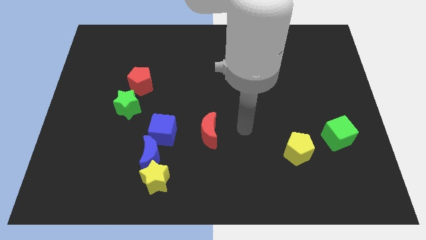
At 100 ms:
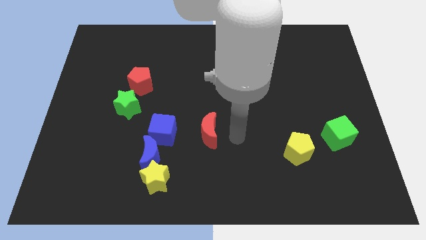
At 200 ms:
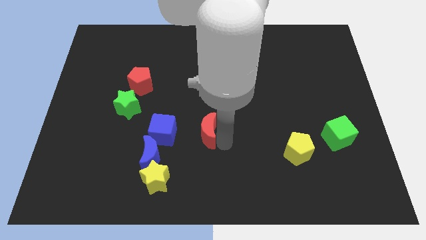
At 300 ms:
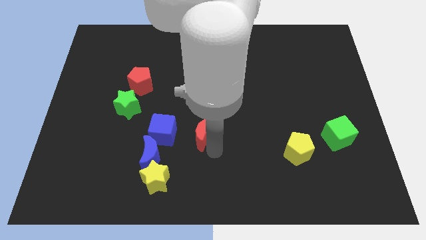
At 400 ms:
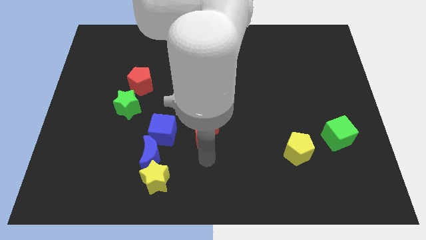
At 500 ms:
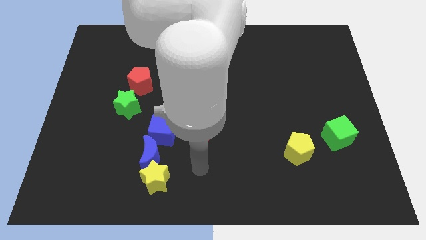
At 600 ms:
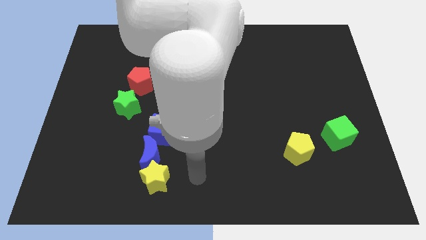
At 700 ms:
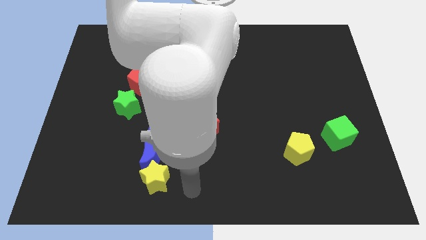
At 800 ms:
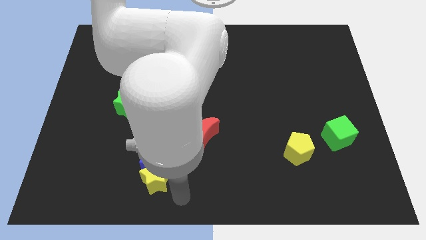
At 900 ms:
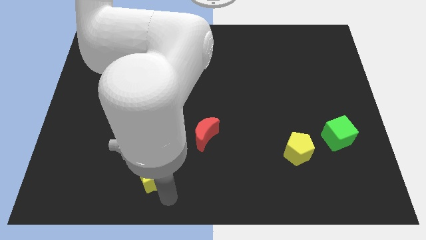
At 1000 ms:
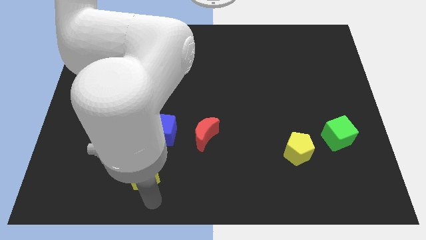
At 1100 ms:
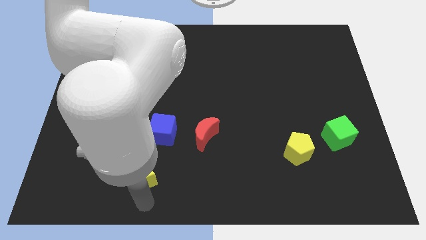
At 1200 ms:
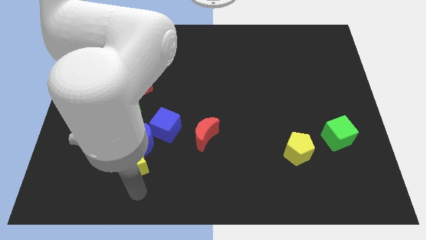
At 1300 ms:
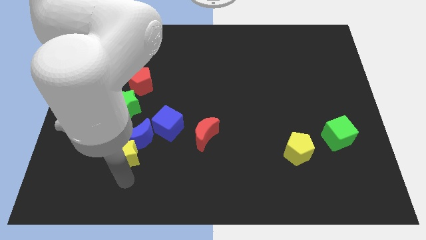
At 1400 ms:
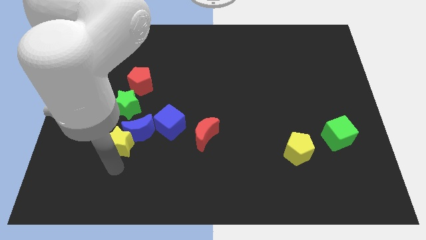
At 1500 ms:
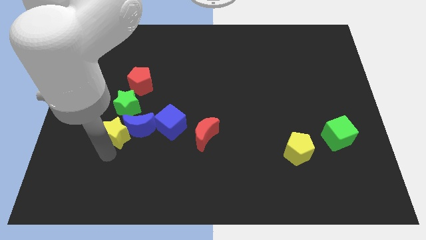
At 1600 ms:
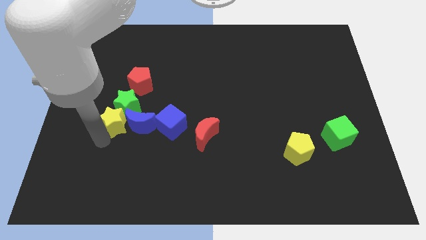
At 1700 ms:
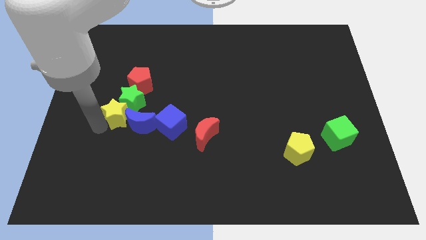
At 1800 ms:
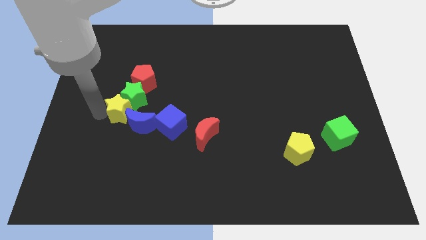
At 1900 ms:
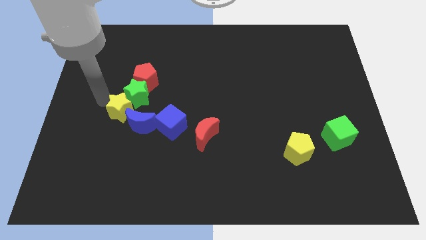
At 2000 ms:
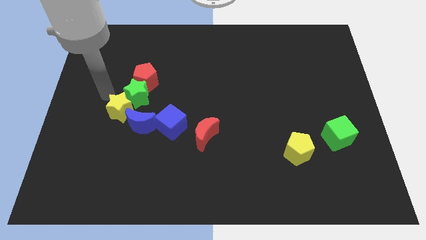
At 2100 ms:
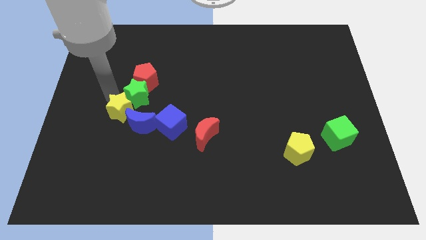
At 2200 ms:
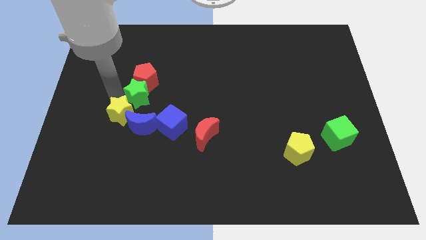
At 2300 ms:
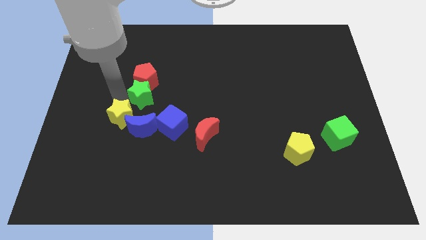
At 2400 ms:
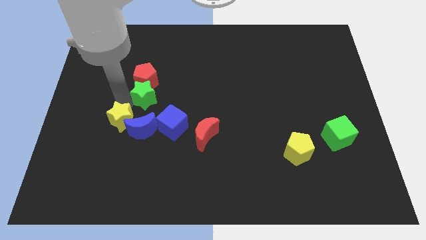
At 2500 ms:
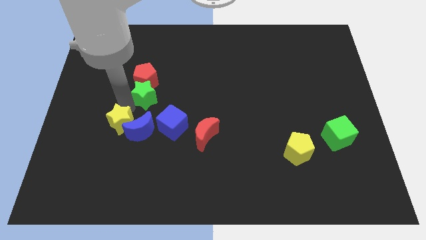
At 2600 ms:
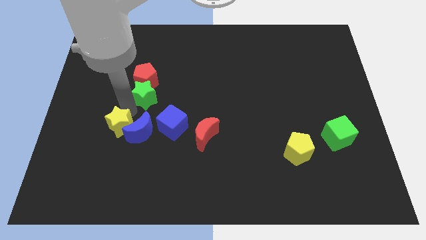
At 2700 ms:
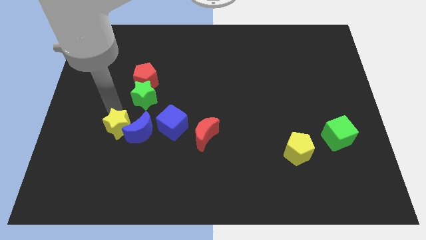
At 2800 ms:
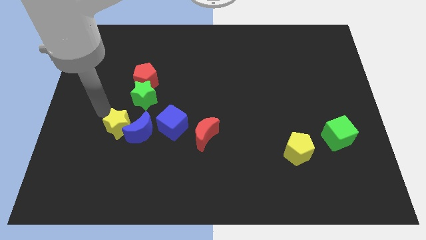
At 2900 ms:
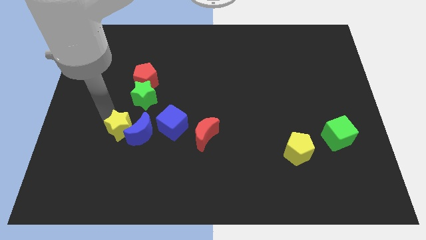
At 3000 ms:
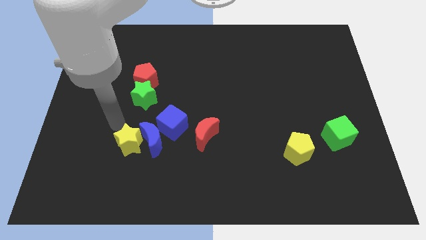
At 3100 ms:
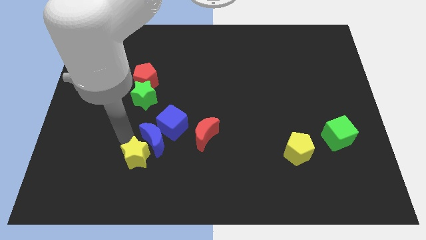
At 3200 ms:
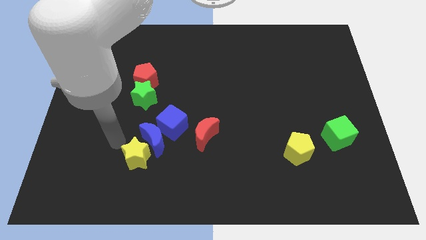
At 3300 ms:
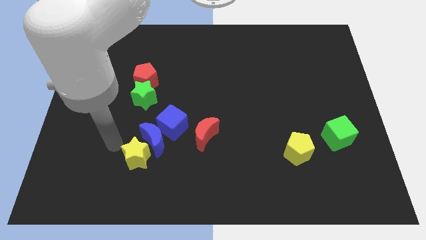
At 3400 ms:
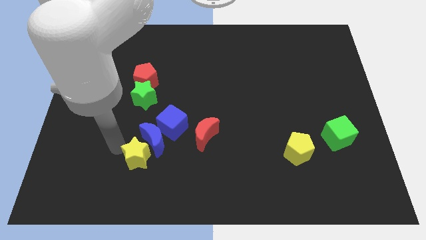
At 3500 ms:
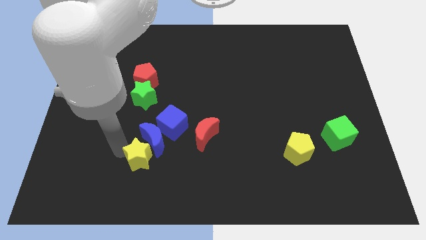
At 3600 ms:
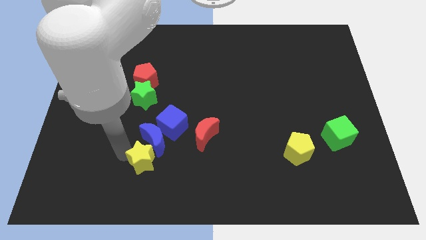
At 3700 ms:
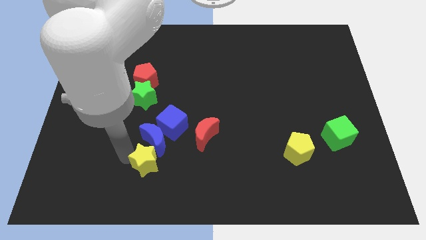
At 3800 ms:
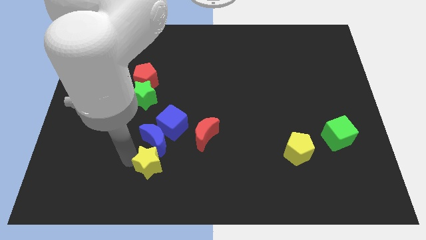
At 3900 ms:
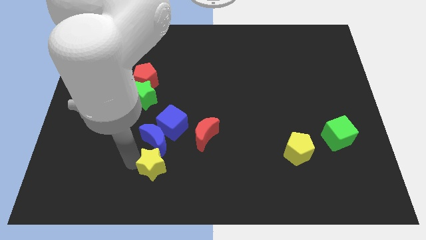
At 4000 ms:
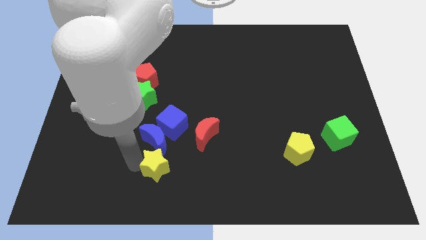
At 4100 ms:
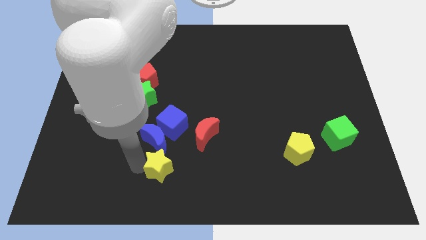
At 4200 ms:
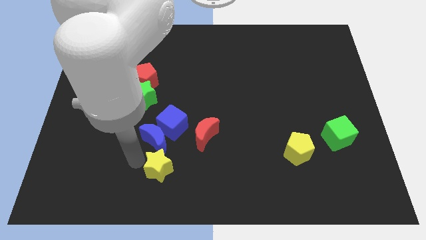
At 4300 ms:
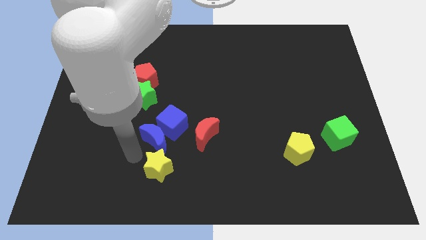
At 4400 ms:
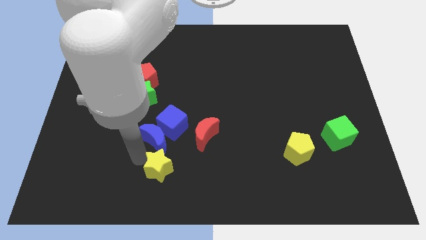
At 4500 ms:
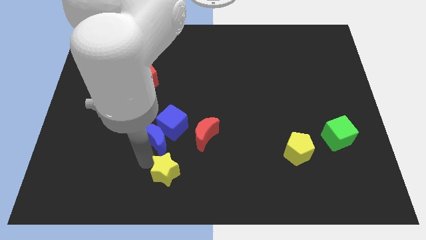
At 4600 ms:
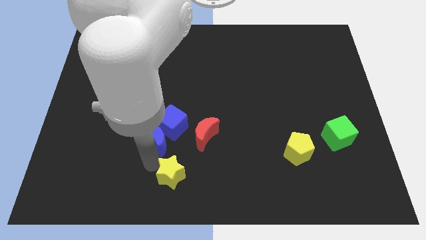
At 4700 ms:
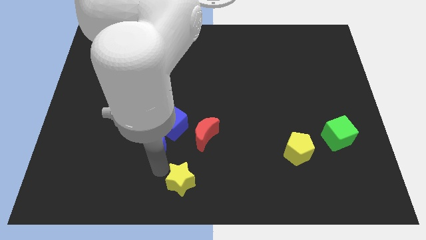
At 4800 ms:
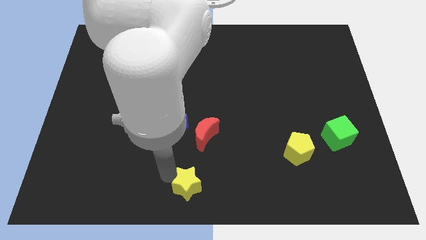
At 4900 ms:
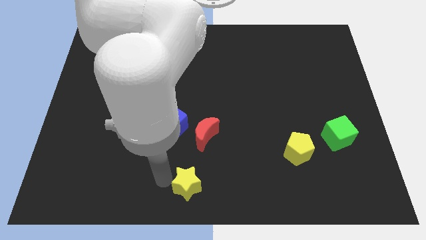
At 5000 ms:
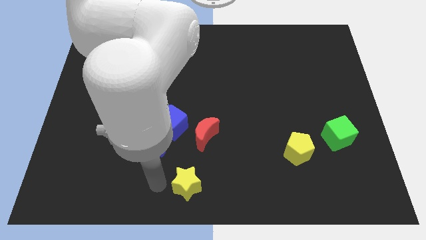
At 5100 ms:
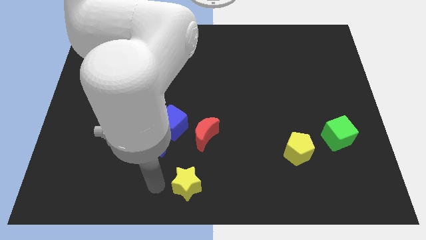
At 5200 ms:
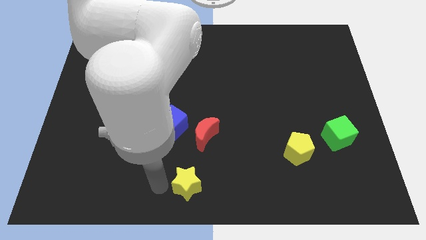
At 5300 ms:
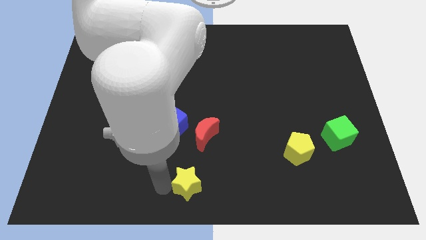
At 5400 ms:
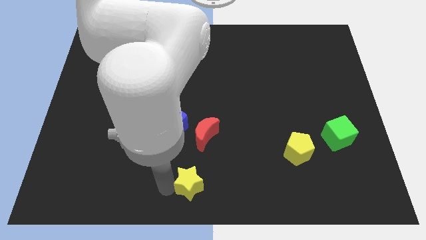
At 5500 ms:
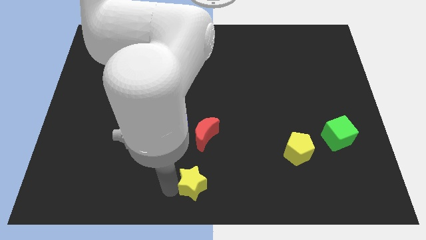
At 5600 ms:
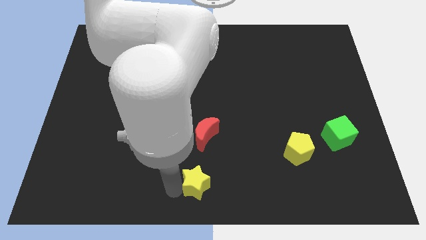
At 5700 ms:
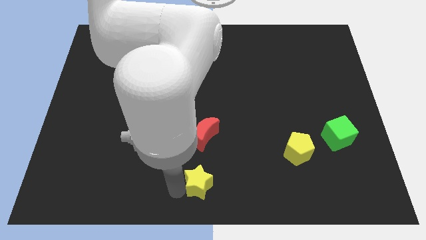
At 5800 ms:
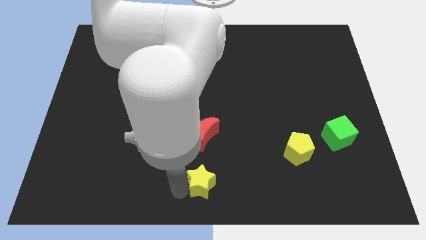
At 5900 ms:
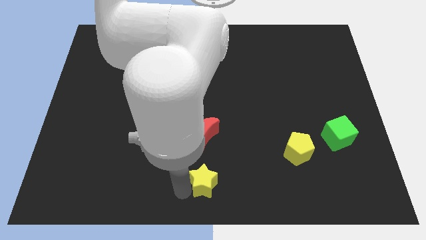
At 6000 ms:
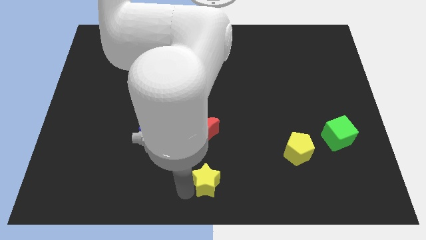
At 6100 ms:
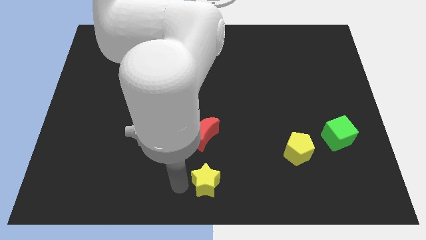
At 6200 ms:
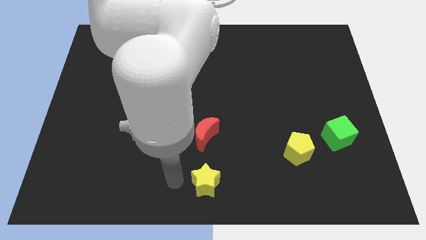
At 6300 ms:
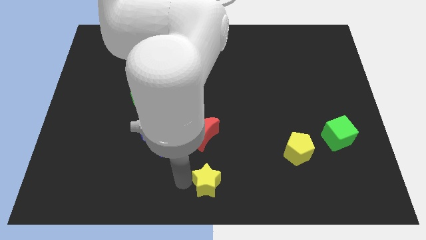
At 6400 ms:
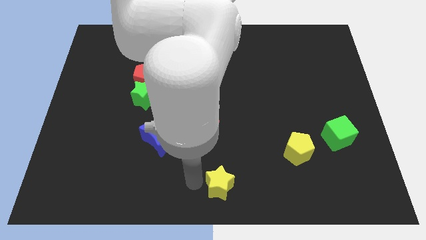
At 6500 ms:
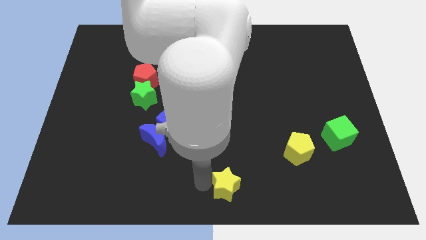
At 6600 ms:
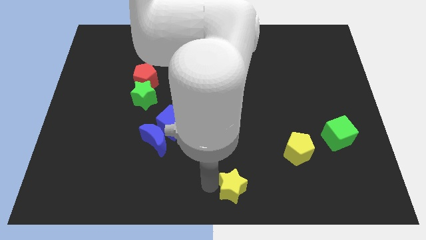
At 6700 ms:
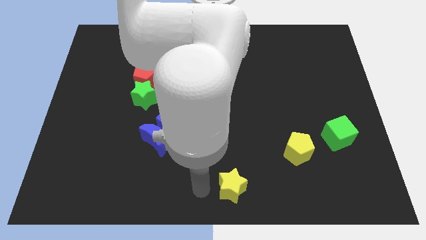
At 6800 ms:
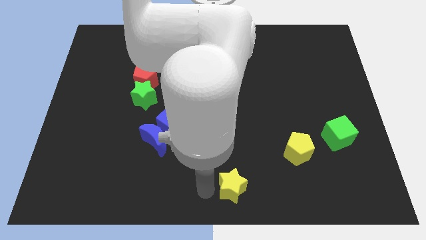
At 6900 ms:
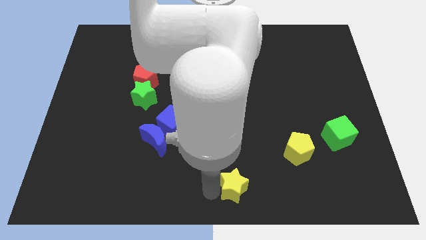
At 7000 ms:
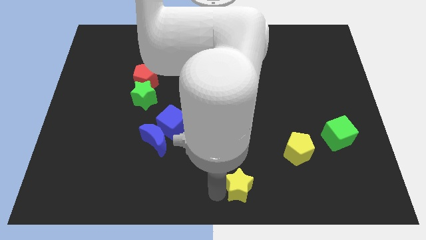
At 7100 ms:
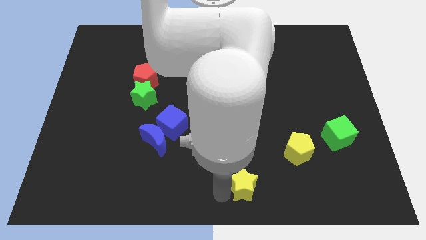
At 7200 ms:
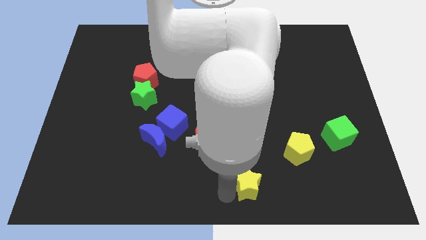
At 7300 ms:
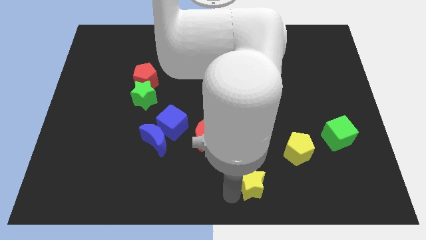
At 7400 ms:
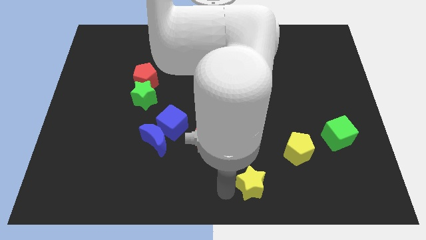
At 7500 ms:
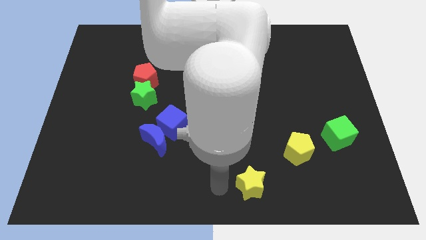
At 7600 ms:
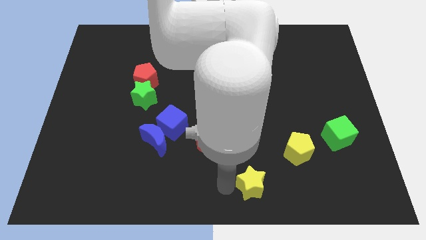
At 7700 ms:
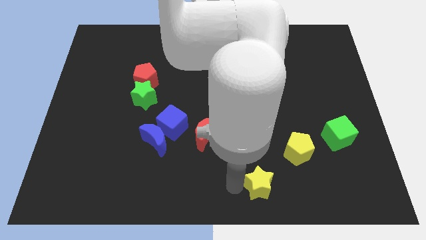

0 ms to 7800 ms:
slide the yellow star to the right

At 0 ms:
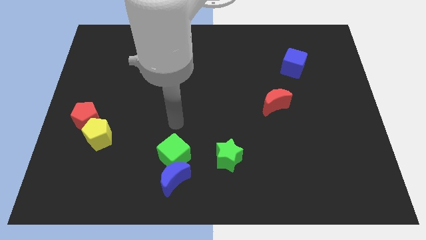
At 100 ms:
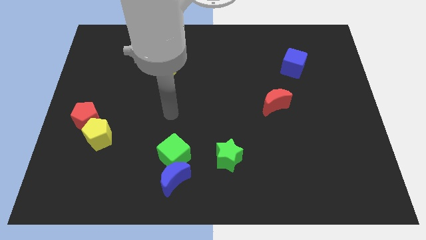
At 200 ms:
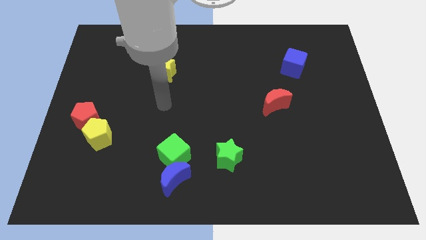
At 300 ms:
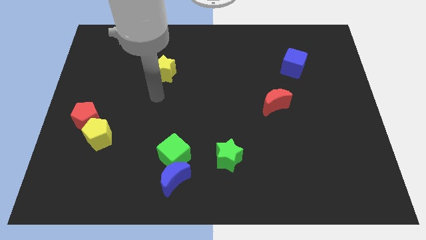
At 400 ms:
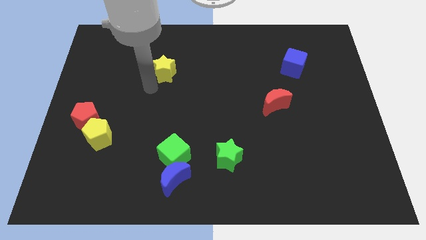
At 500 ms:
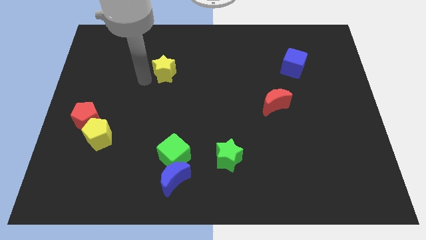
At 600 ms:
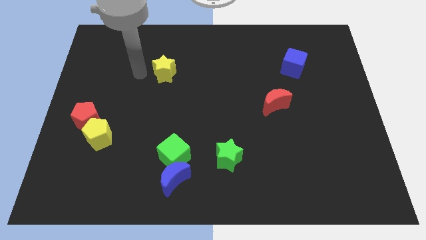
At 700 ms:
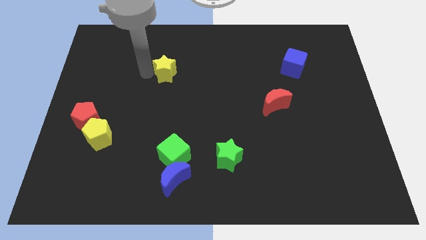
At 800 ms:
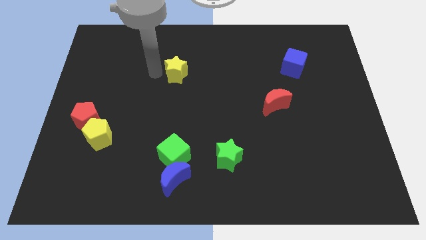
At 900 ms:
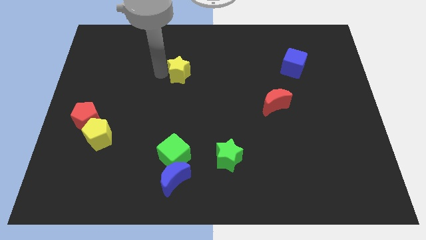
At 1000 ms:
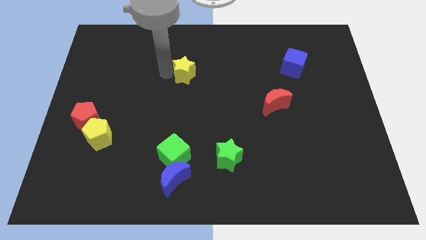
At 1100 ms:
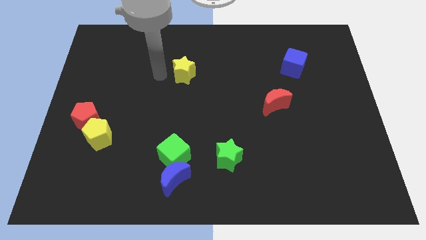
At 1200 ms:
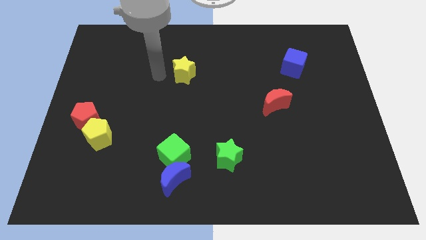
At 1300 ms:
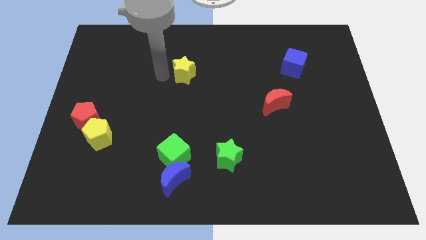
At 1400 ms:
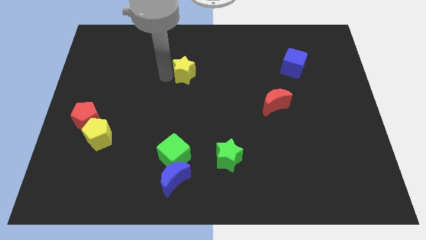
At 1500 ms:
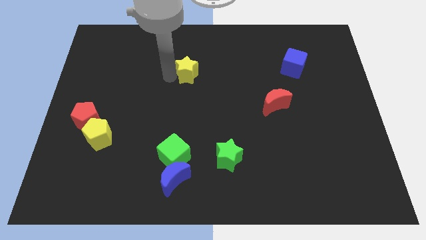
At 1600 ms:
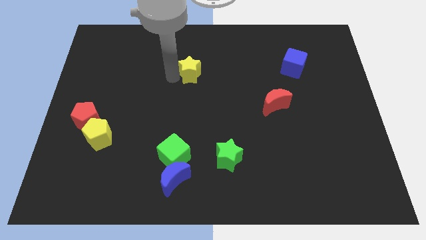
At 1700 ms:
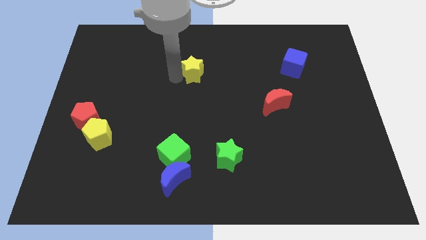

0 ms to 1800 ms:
push the yellow star slightly to the right
